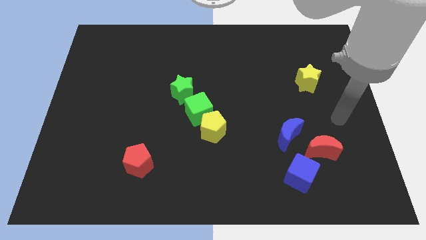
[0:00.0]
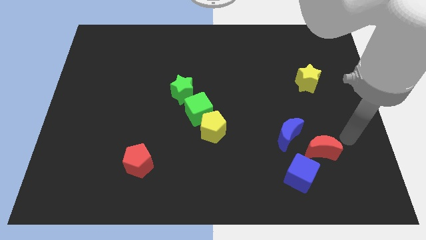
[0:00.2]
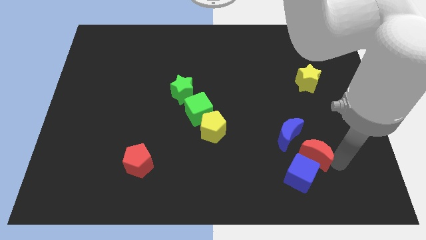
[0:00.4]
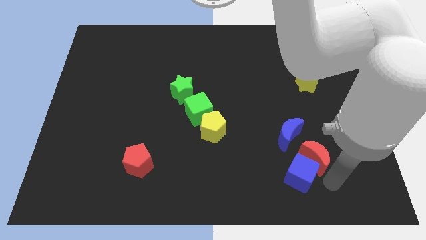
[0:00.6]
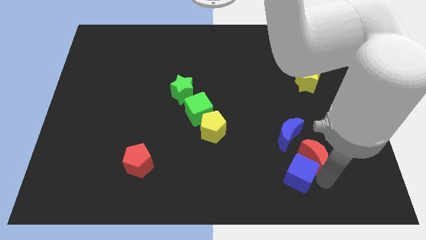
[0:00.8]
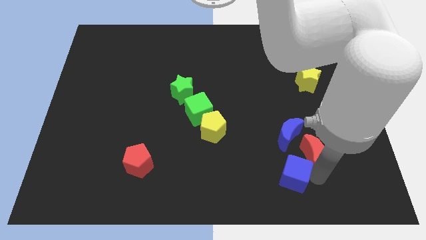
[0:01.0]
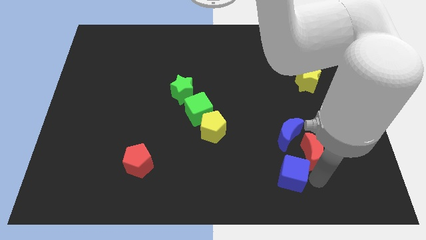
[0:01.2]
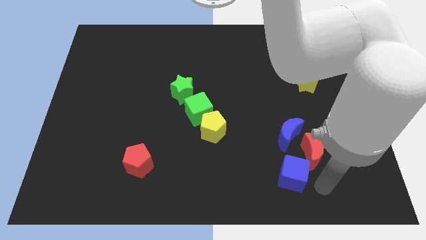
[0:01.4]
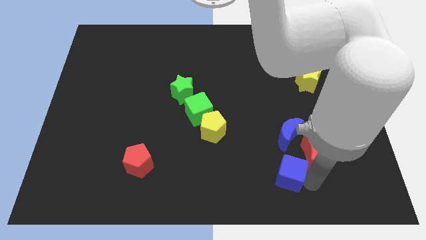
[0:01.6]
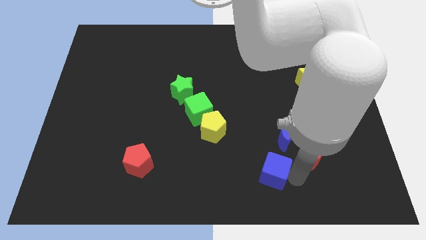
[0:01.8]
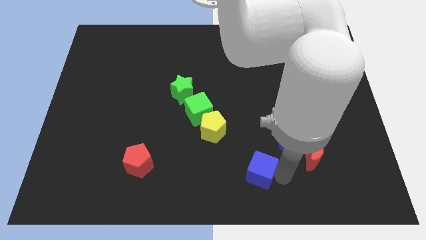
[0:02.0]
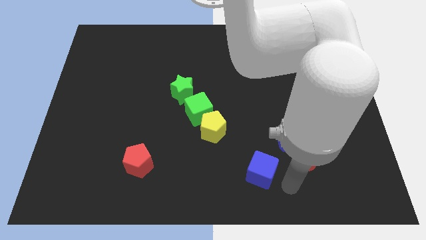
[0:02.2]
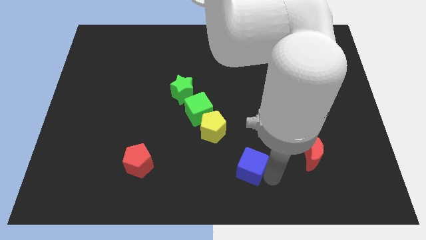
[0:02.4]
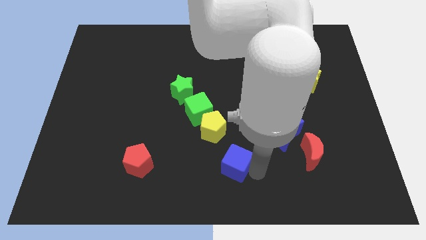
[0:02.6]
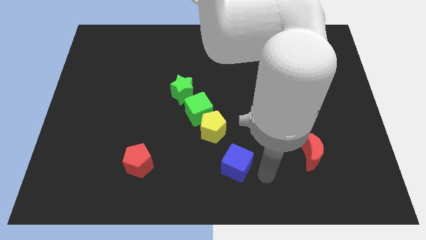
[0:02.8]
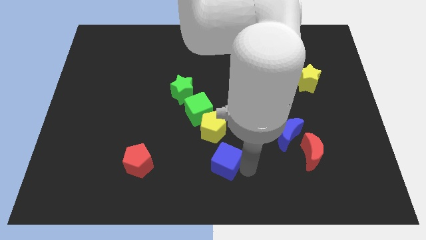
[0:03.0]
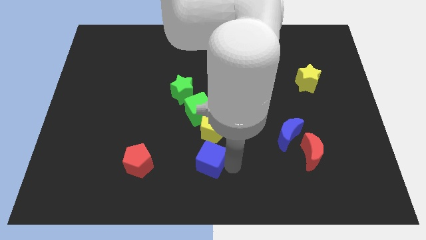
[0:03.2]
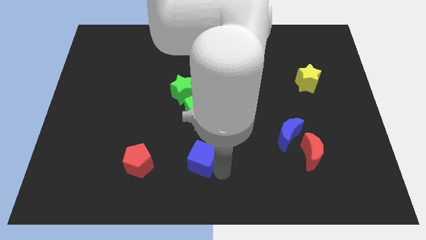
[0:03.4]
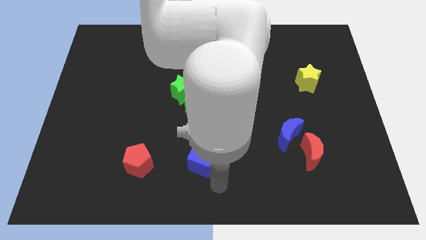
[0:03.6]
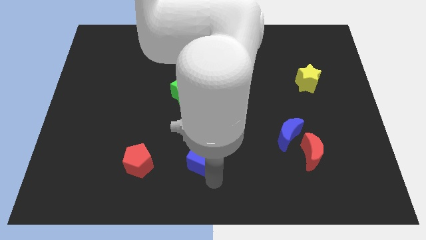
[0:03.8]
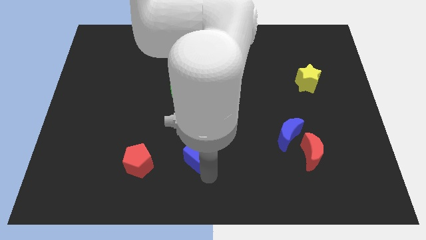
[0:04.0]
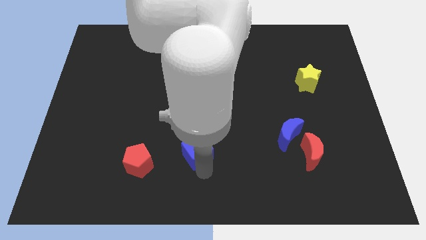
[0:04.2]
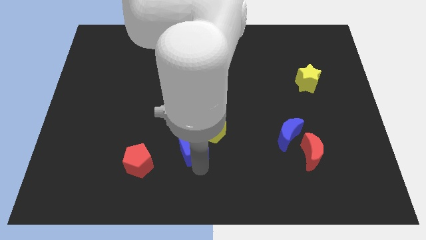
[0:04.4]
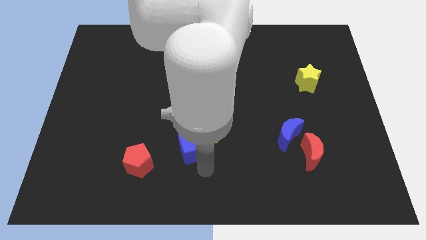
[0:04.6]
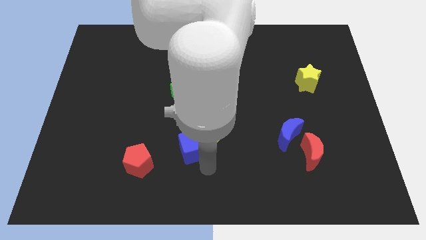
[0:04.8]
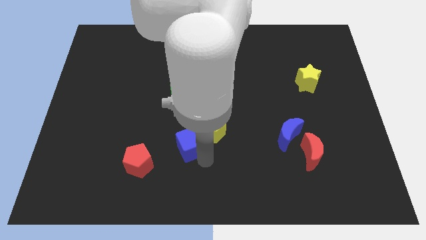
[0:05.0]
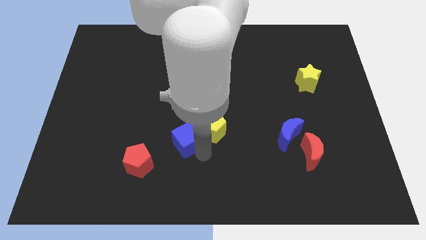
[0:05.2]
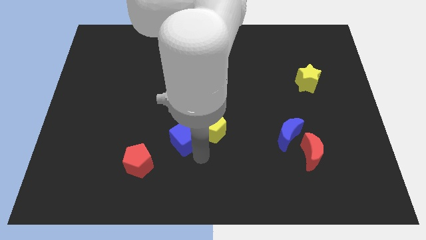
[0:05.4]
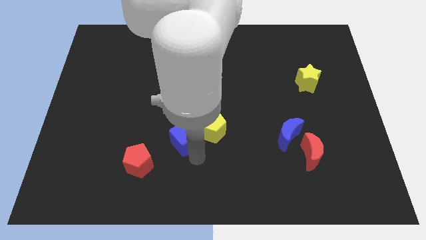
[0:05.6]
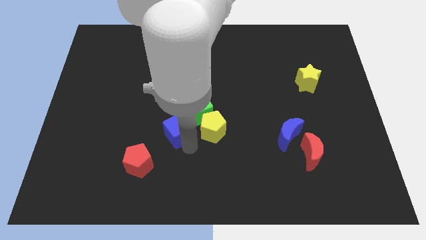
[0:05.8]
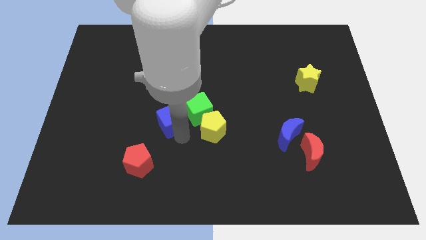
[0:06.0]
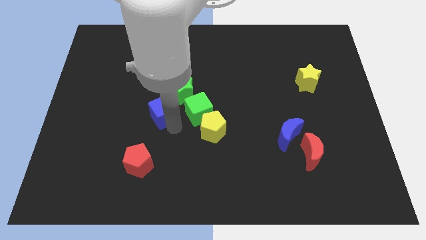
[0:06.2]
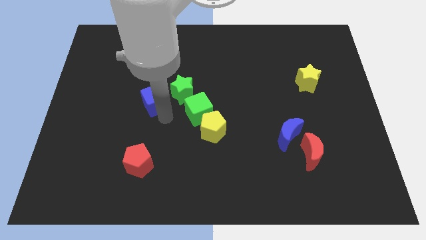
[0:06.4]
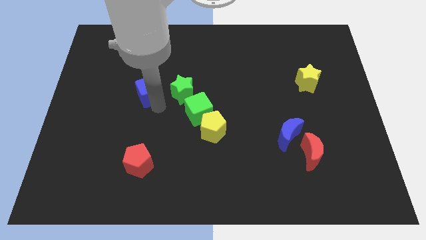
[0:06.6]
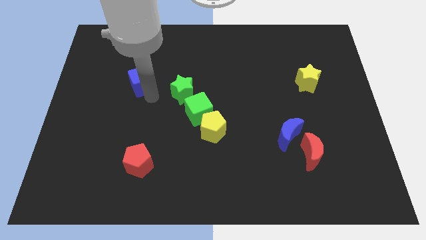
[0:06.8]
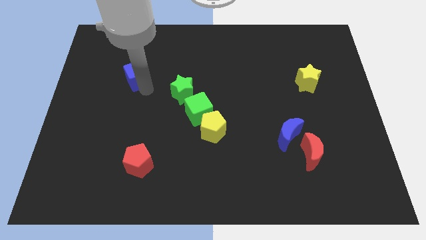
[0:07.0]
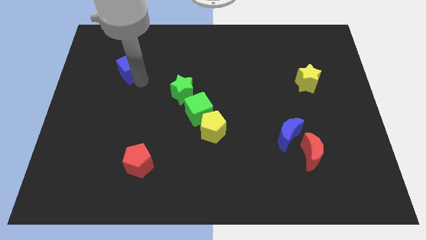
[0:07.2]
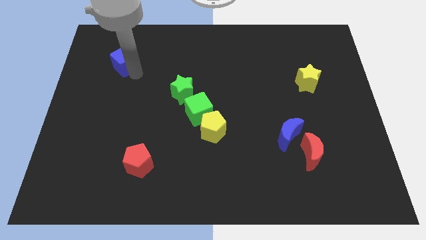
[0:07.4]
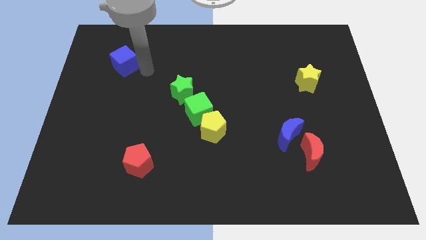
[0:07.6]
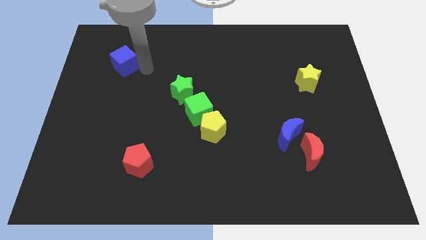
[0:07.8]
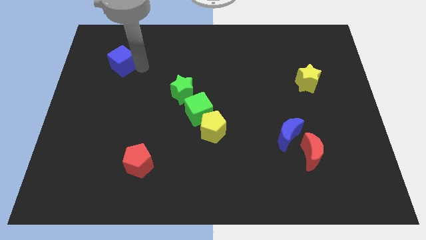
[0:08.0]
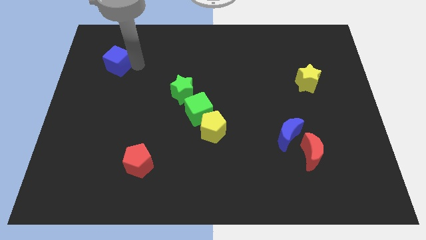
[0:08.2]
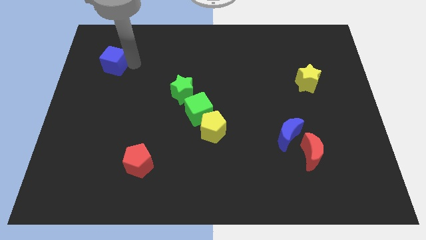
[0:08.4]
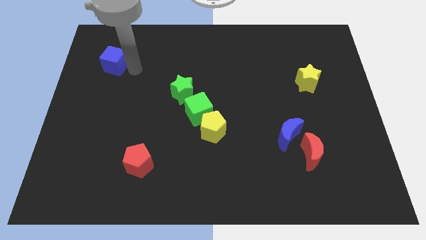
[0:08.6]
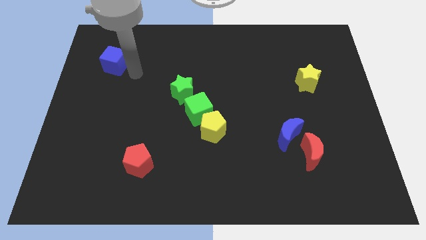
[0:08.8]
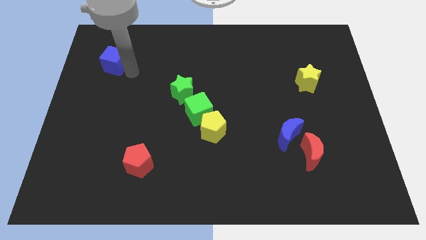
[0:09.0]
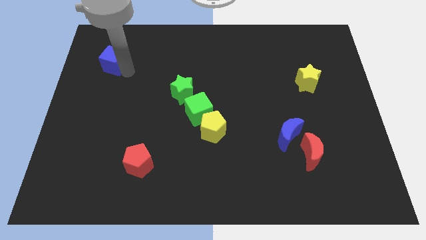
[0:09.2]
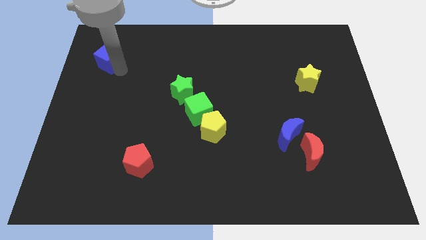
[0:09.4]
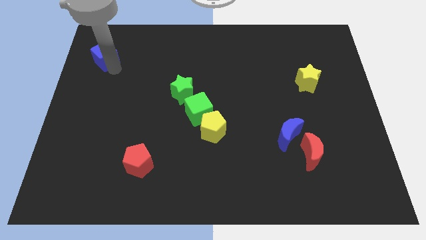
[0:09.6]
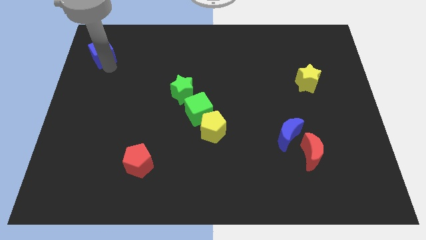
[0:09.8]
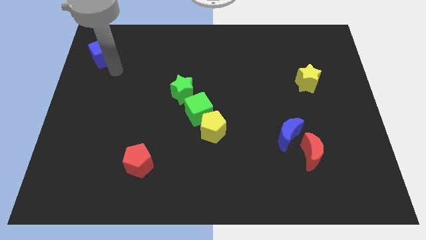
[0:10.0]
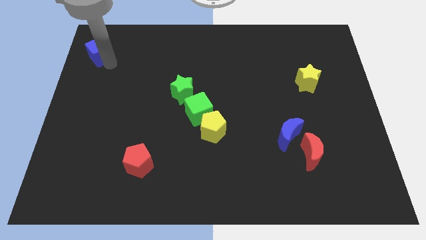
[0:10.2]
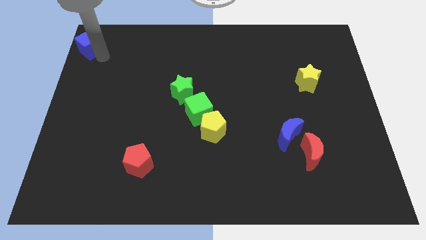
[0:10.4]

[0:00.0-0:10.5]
put the blue cube to the top left

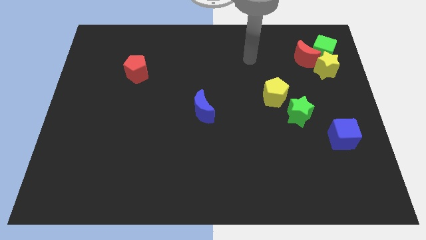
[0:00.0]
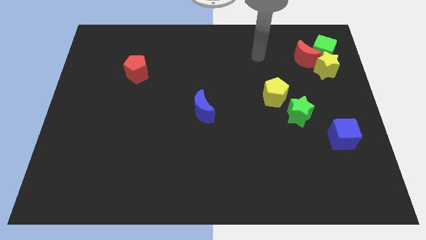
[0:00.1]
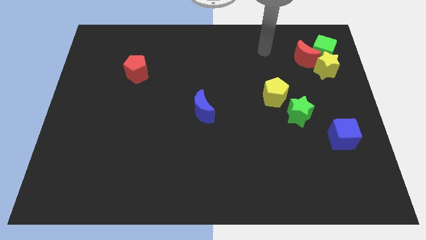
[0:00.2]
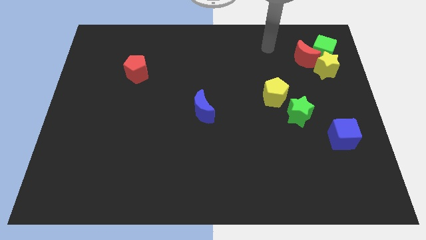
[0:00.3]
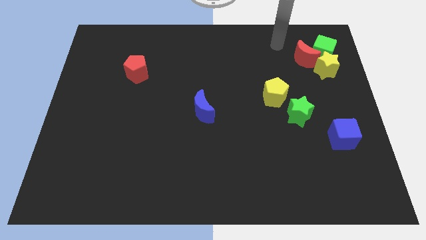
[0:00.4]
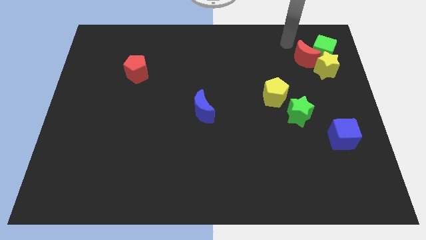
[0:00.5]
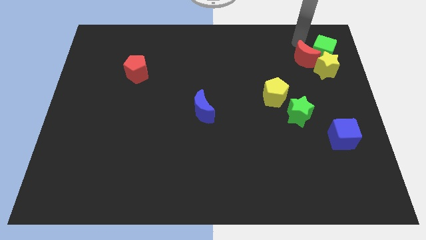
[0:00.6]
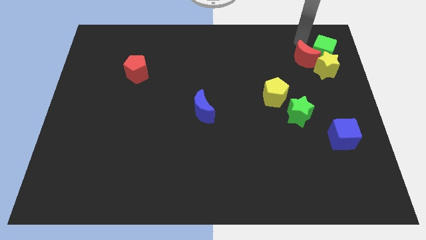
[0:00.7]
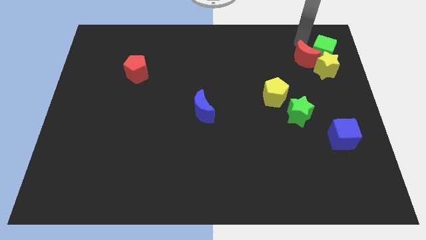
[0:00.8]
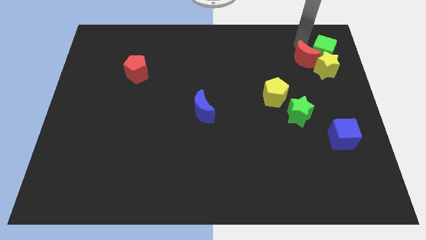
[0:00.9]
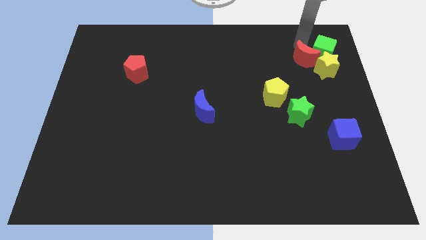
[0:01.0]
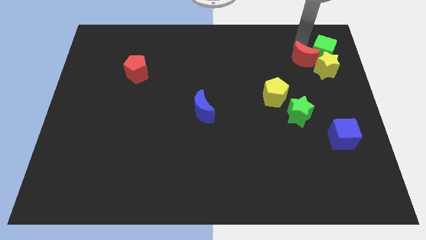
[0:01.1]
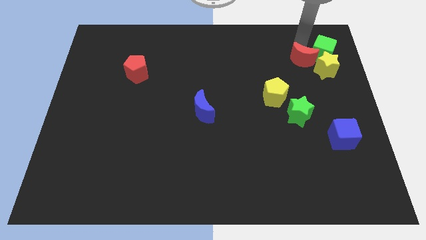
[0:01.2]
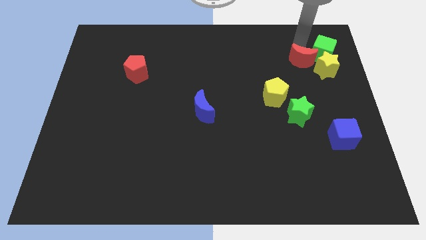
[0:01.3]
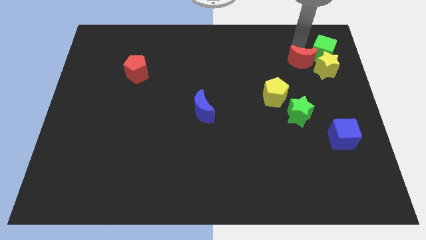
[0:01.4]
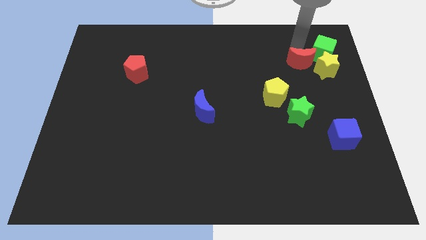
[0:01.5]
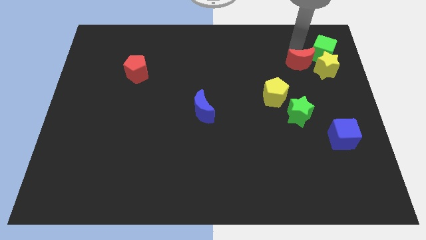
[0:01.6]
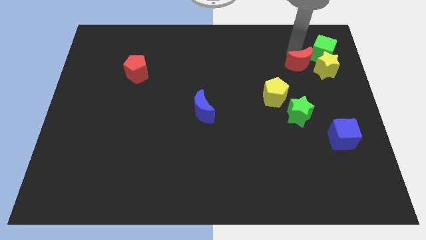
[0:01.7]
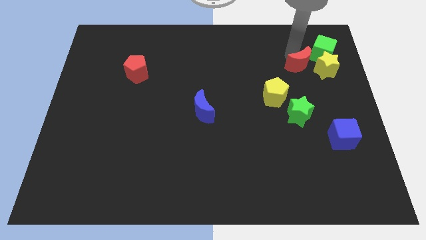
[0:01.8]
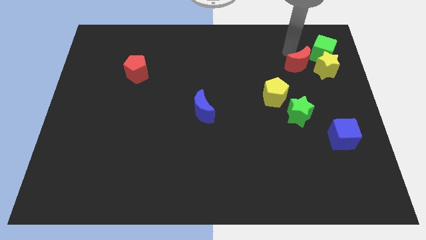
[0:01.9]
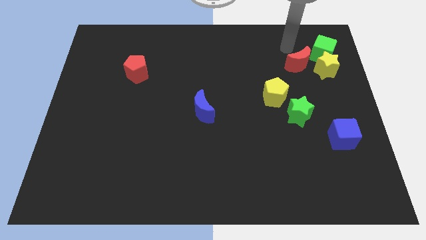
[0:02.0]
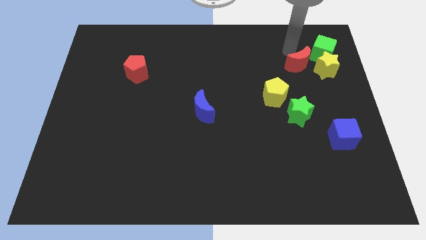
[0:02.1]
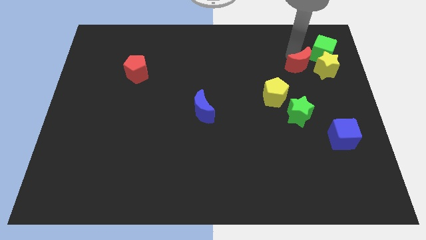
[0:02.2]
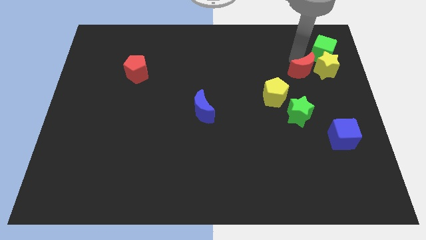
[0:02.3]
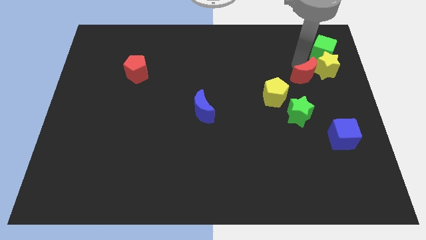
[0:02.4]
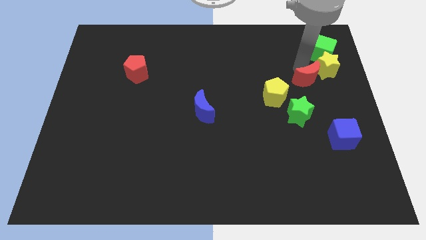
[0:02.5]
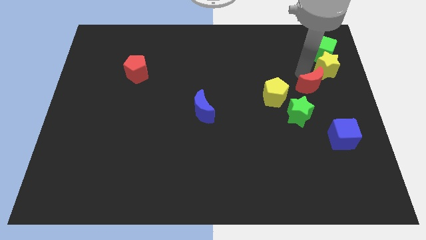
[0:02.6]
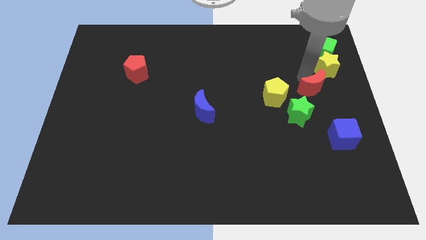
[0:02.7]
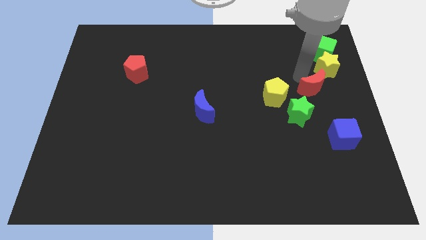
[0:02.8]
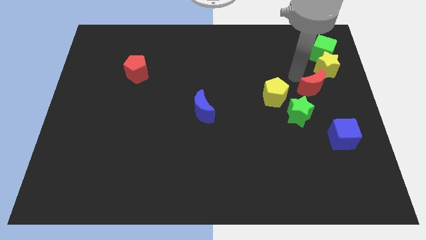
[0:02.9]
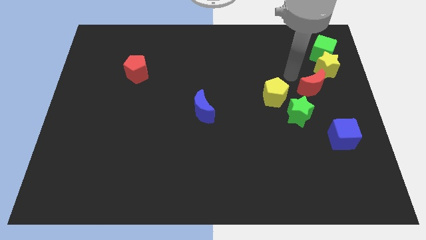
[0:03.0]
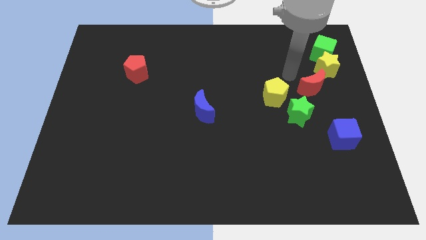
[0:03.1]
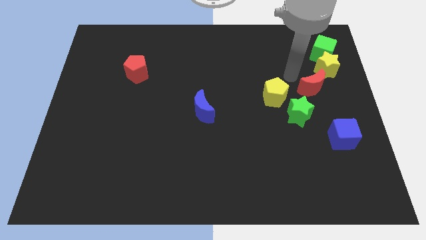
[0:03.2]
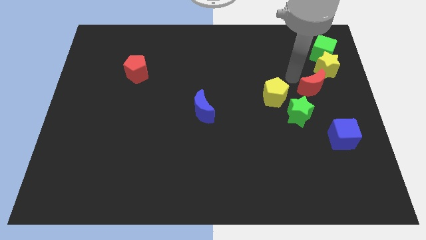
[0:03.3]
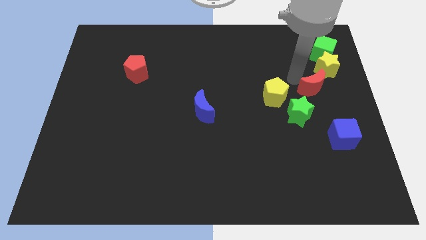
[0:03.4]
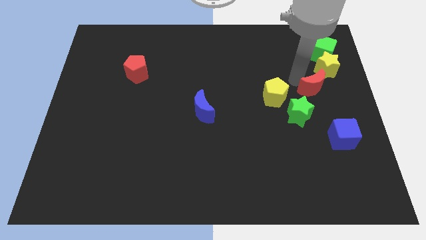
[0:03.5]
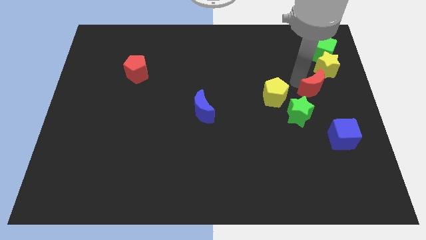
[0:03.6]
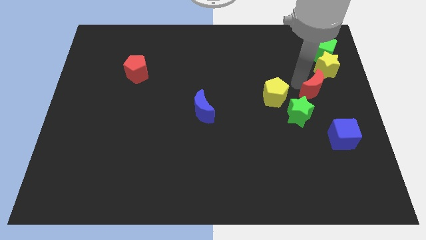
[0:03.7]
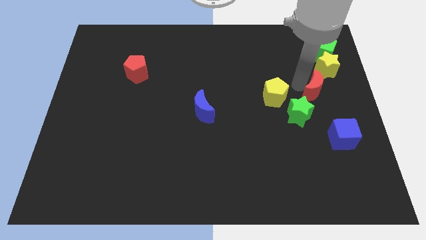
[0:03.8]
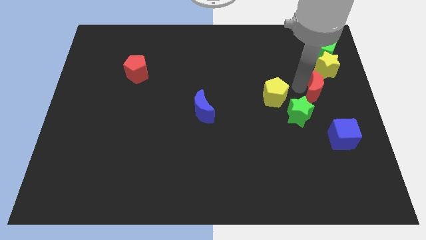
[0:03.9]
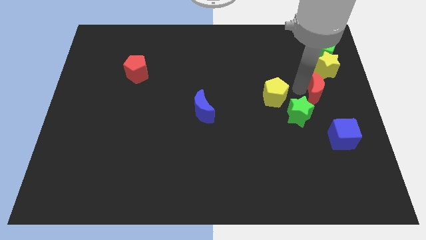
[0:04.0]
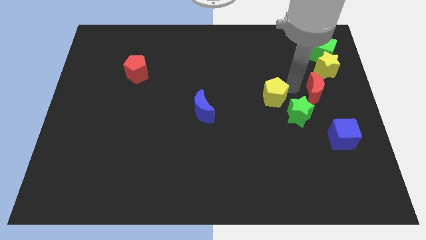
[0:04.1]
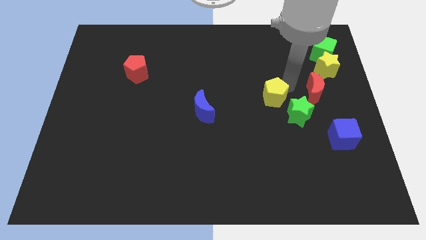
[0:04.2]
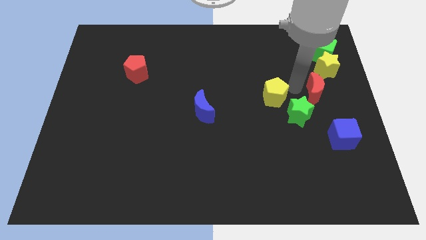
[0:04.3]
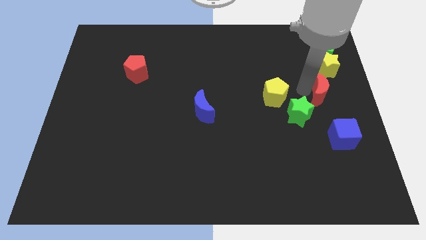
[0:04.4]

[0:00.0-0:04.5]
put the red moon to the center right
